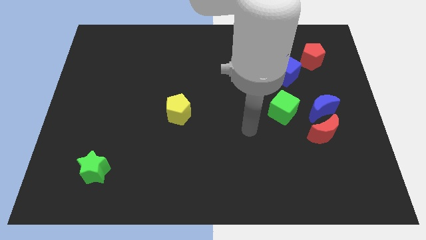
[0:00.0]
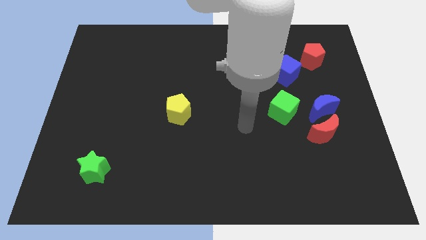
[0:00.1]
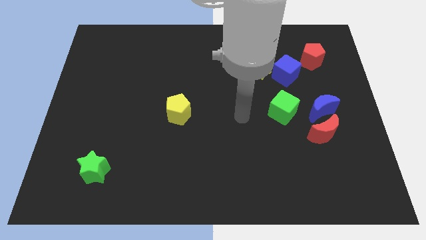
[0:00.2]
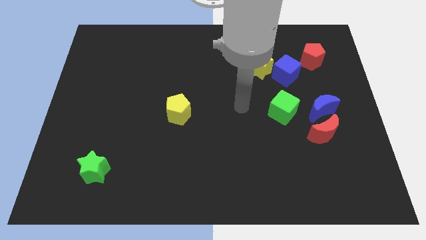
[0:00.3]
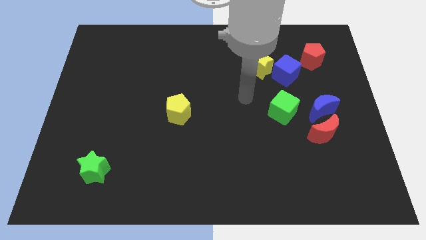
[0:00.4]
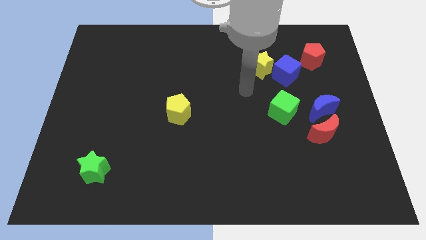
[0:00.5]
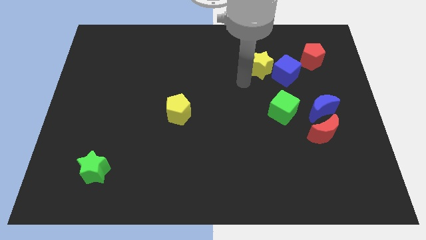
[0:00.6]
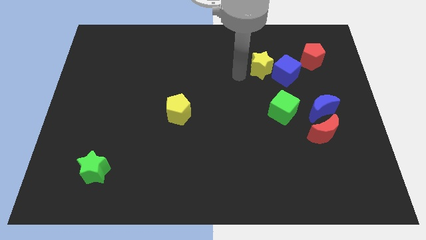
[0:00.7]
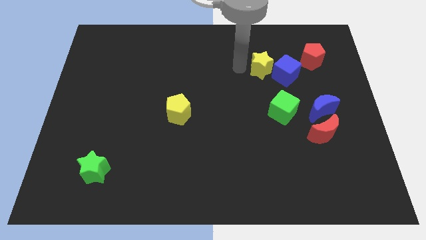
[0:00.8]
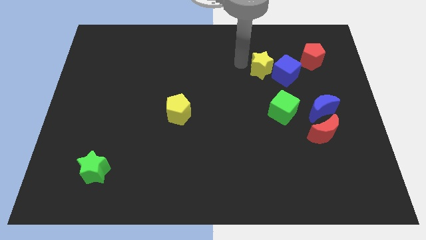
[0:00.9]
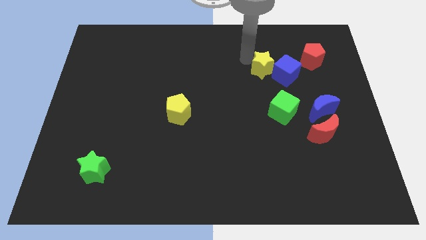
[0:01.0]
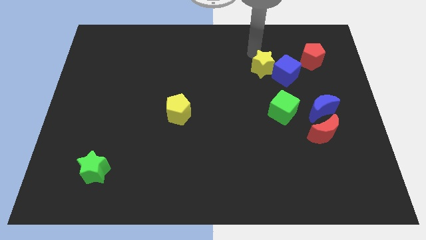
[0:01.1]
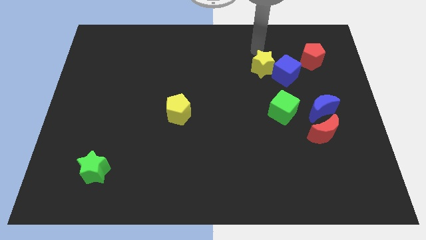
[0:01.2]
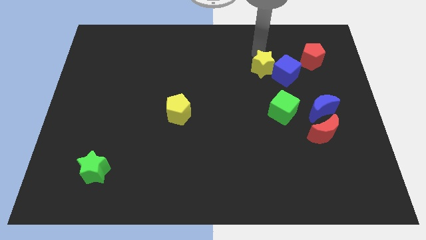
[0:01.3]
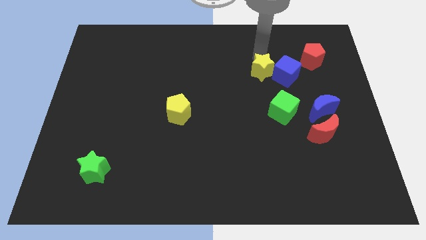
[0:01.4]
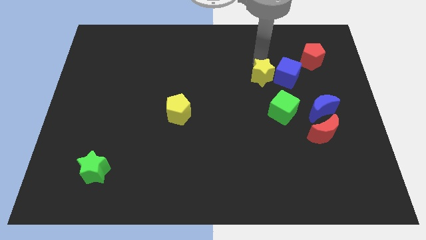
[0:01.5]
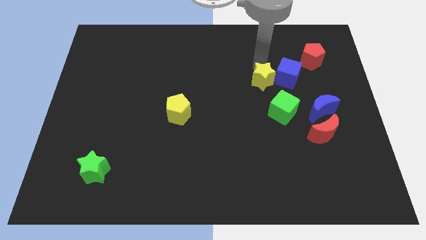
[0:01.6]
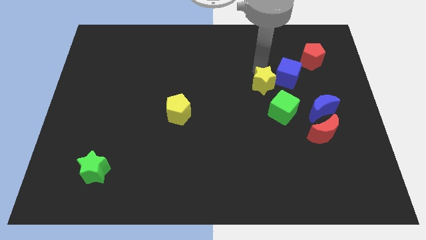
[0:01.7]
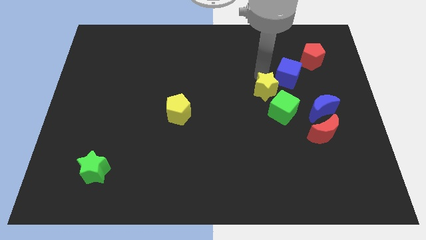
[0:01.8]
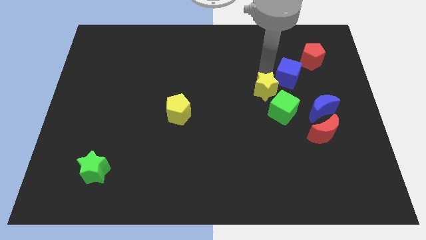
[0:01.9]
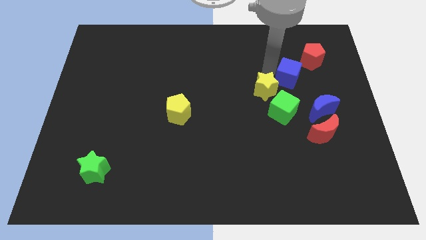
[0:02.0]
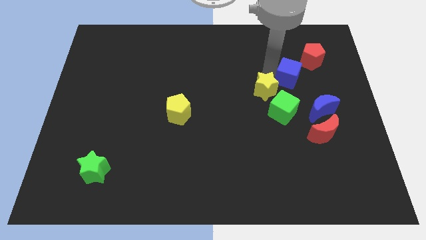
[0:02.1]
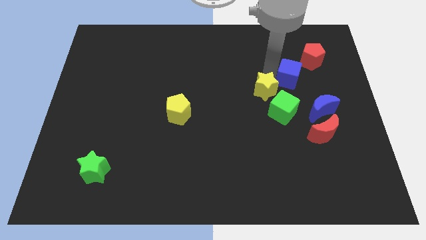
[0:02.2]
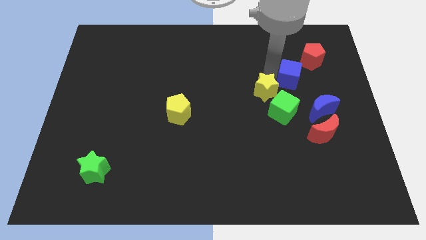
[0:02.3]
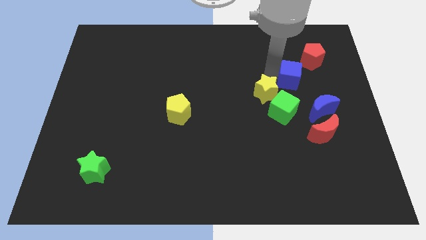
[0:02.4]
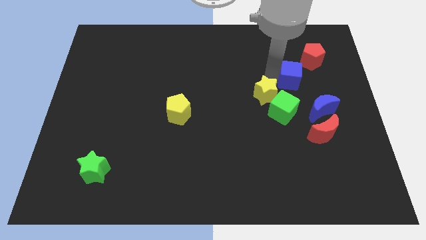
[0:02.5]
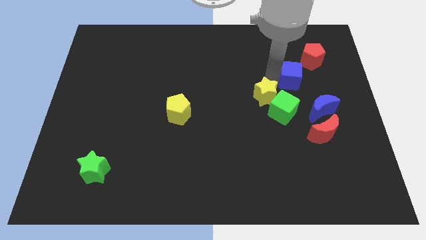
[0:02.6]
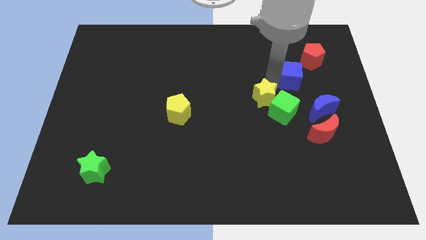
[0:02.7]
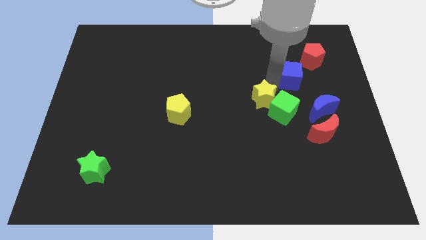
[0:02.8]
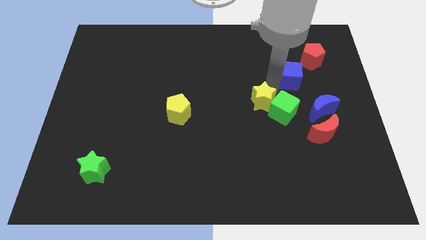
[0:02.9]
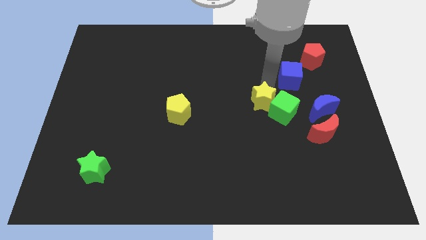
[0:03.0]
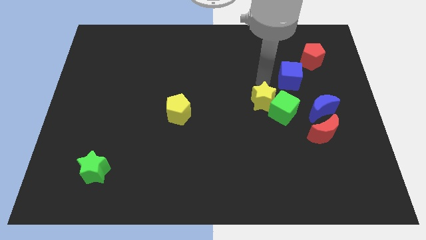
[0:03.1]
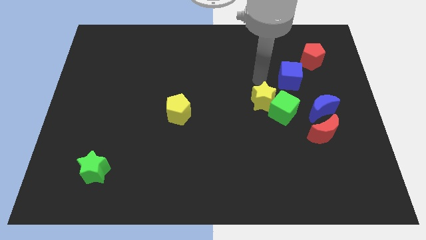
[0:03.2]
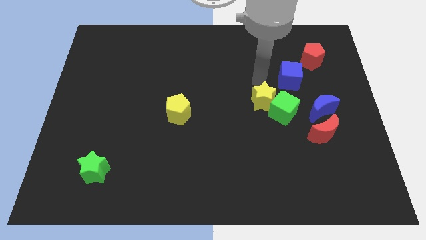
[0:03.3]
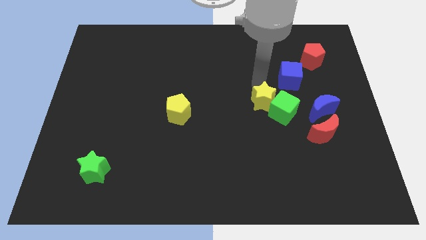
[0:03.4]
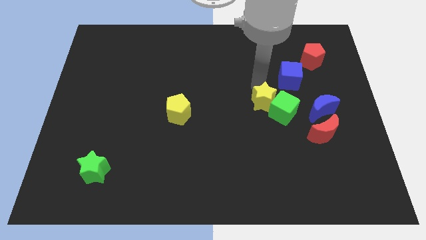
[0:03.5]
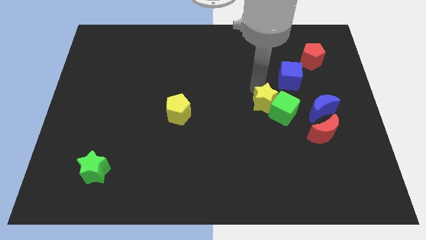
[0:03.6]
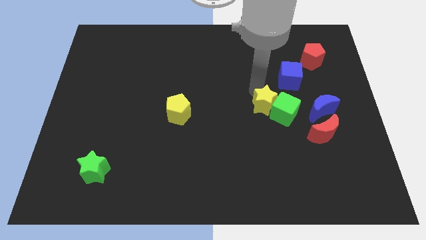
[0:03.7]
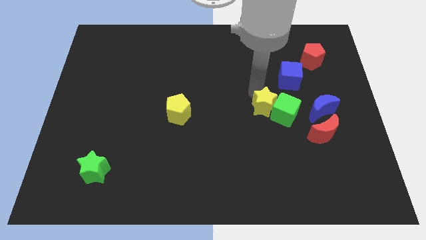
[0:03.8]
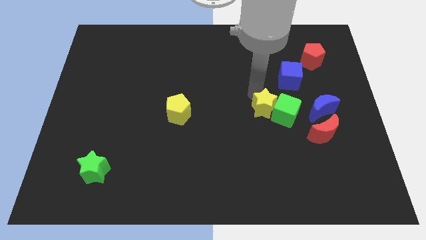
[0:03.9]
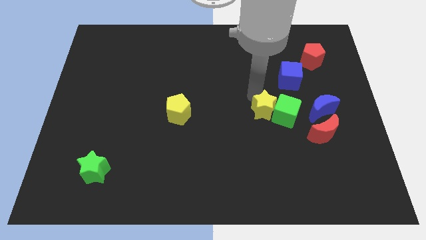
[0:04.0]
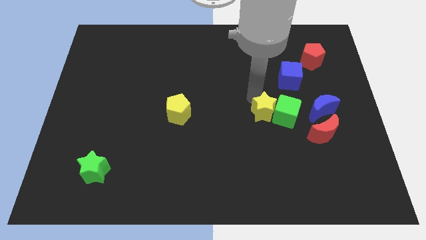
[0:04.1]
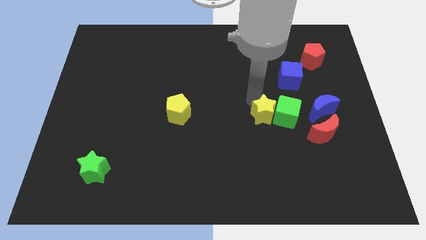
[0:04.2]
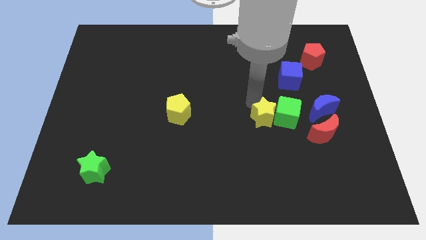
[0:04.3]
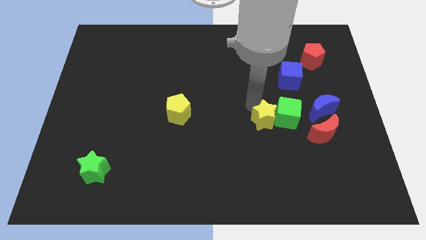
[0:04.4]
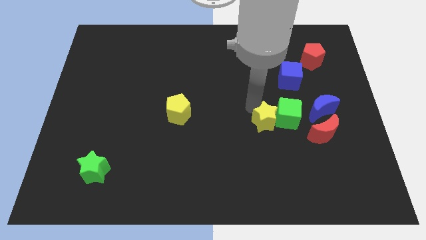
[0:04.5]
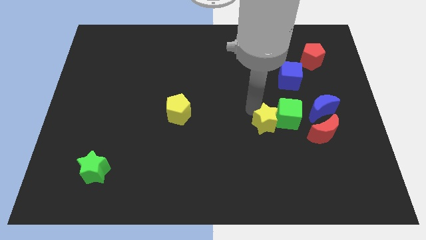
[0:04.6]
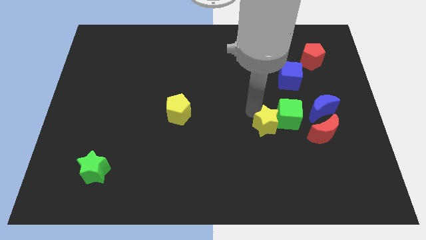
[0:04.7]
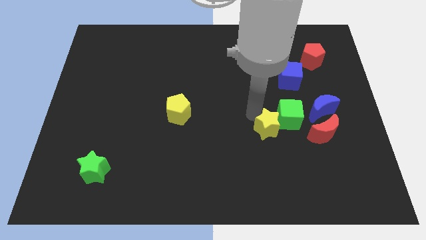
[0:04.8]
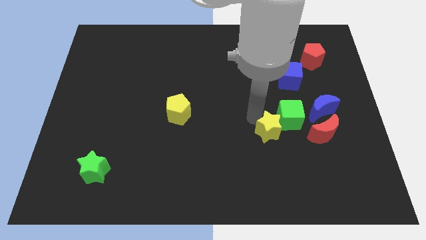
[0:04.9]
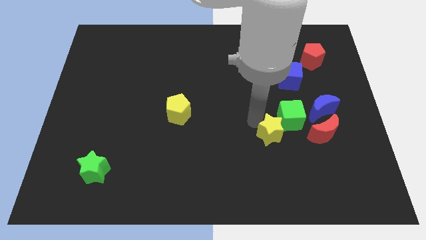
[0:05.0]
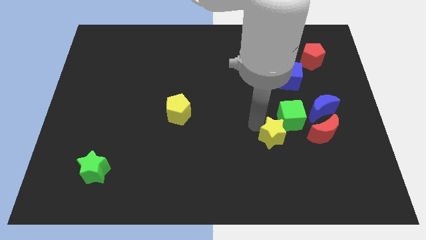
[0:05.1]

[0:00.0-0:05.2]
move the yellow star to the bottom of the green cube

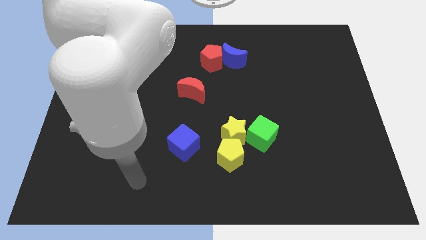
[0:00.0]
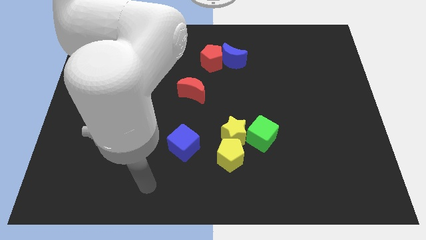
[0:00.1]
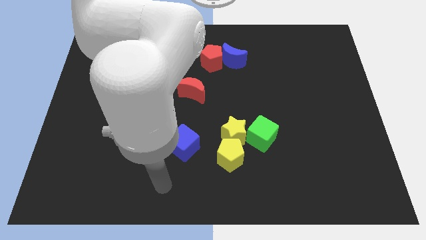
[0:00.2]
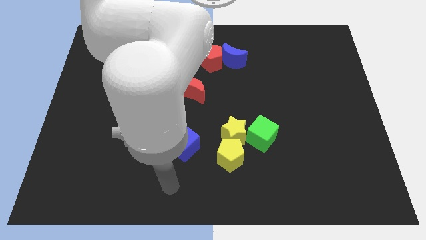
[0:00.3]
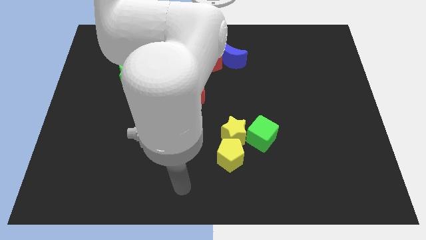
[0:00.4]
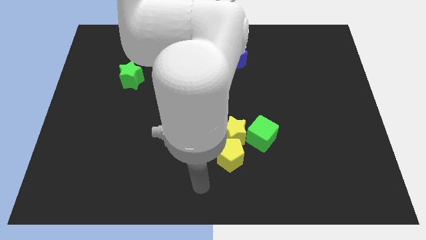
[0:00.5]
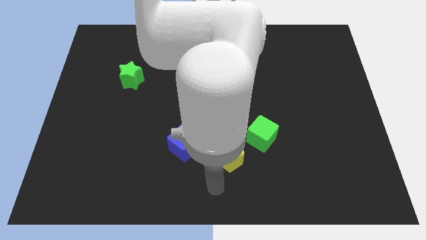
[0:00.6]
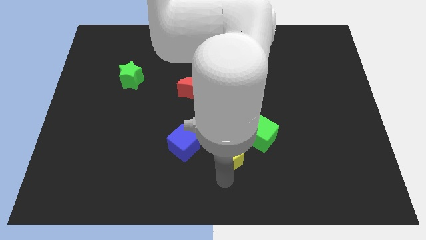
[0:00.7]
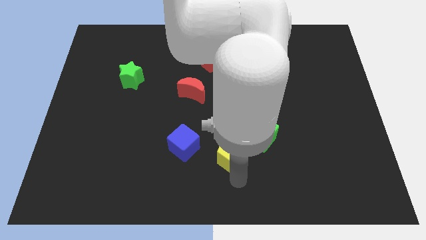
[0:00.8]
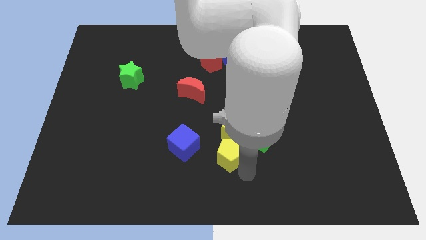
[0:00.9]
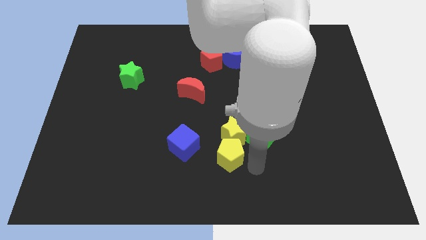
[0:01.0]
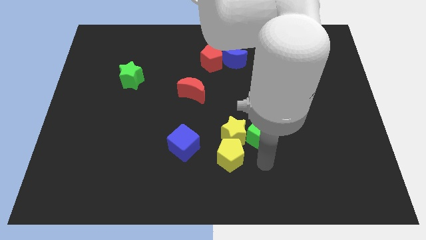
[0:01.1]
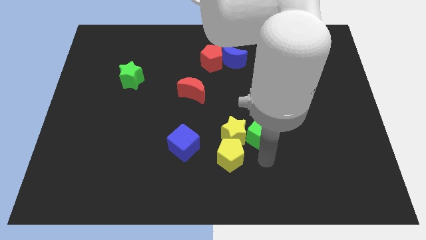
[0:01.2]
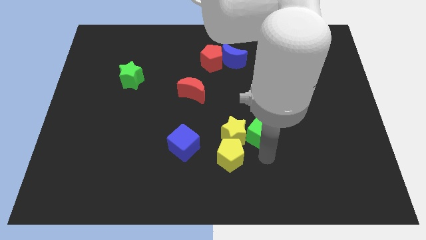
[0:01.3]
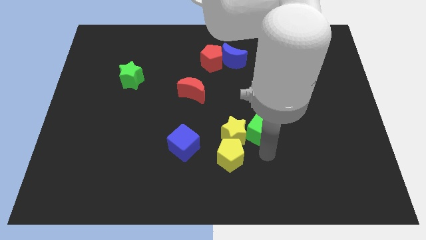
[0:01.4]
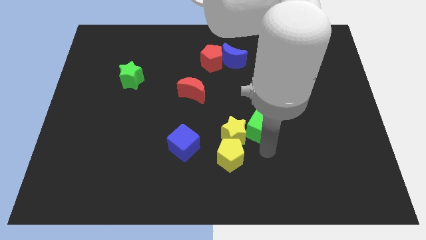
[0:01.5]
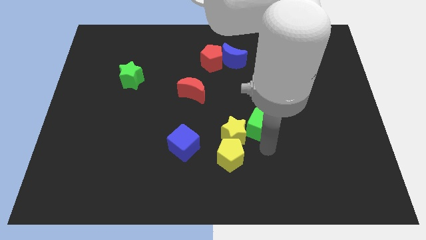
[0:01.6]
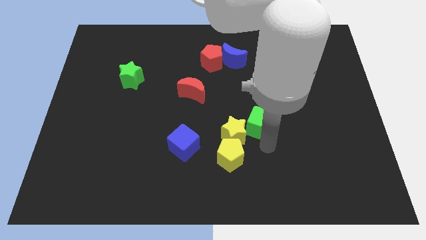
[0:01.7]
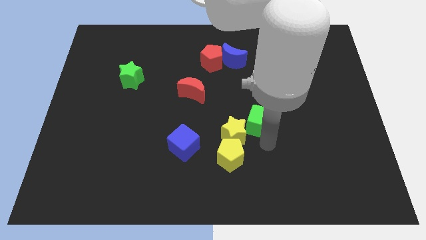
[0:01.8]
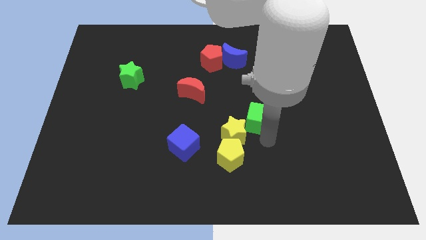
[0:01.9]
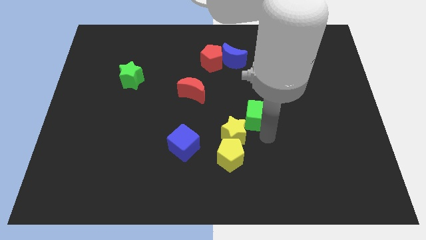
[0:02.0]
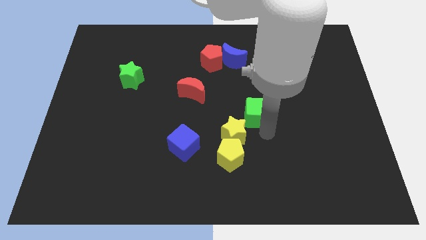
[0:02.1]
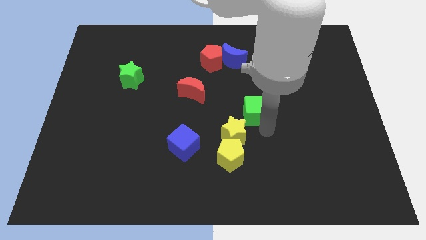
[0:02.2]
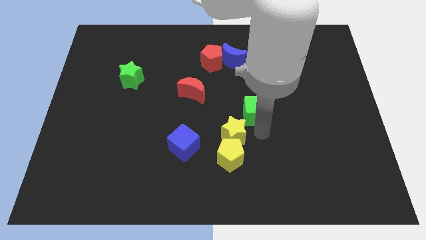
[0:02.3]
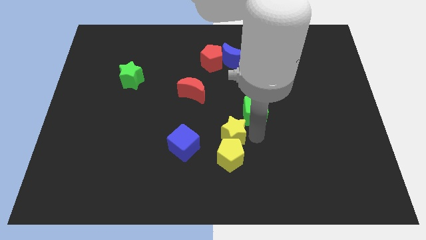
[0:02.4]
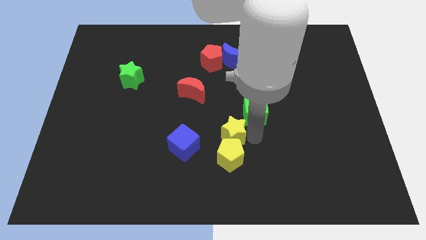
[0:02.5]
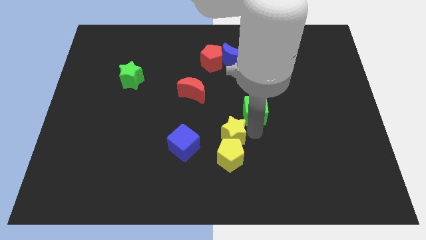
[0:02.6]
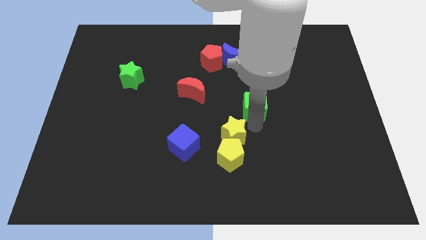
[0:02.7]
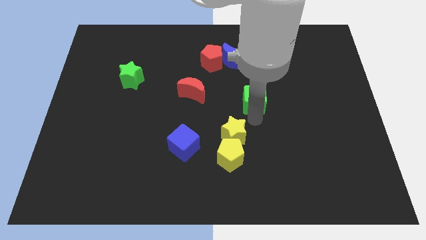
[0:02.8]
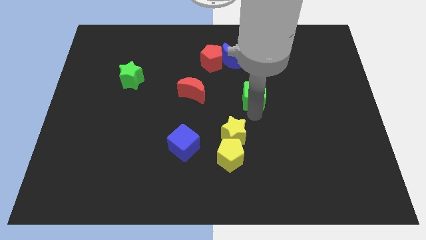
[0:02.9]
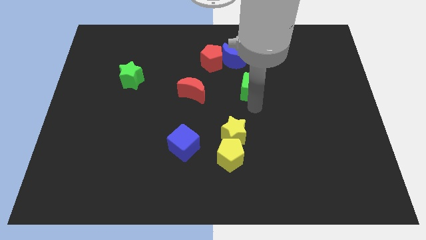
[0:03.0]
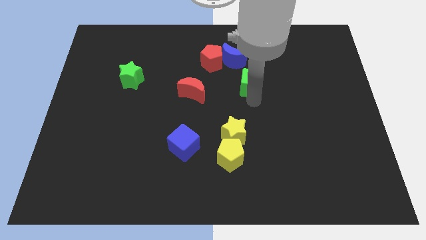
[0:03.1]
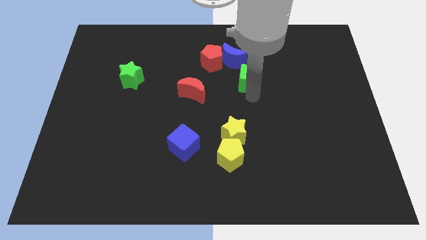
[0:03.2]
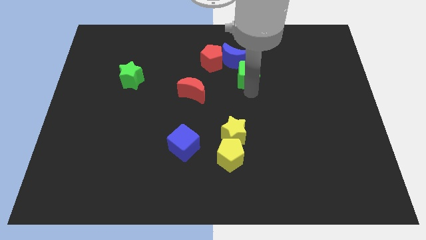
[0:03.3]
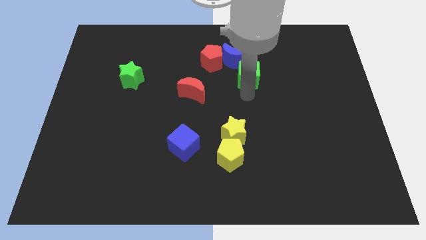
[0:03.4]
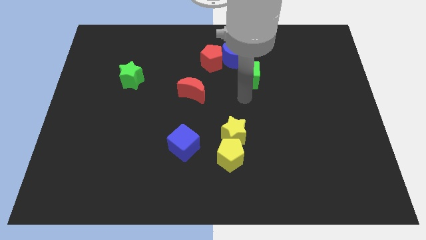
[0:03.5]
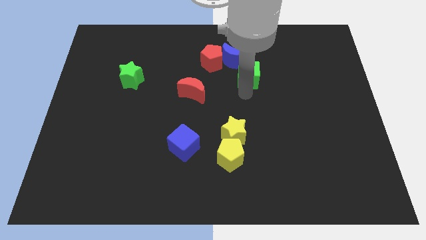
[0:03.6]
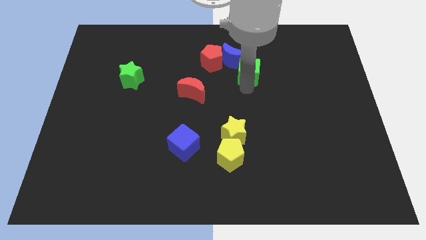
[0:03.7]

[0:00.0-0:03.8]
move the green cube to the right side of the red pentagon
